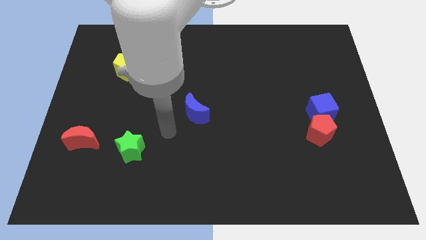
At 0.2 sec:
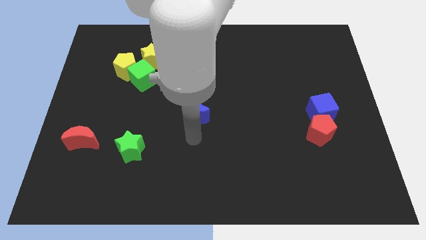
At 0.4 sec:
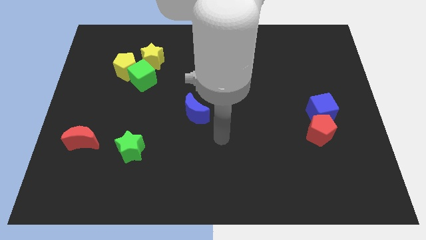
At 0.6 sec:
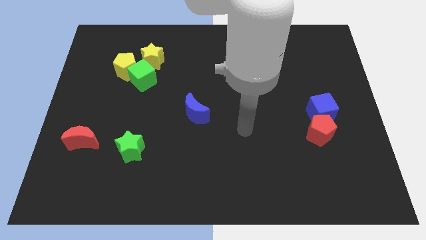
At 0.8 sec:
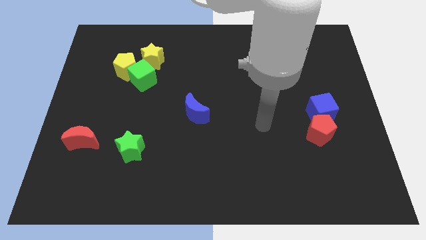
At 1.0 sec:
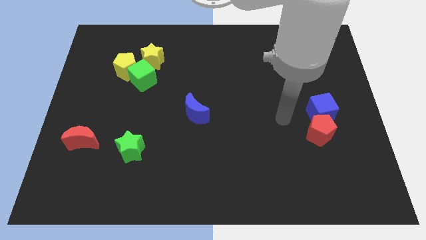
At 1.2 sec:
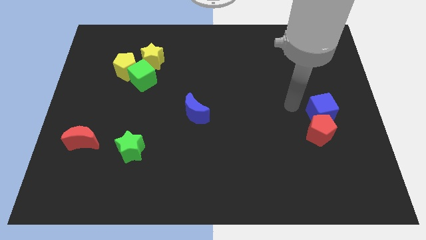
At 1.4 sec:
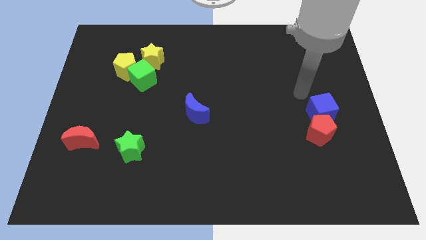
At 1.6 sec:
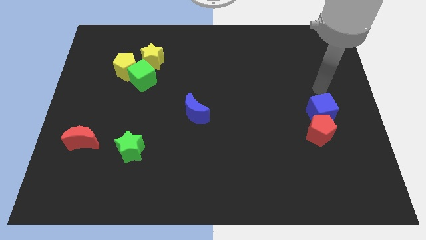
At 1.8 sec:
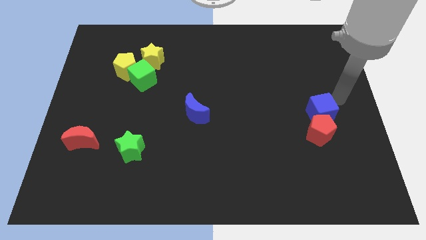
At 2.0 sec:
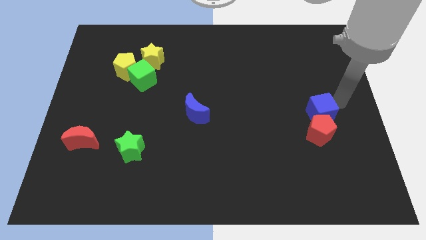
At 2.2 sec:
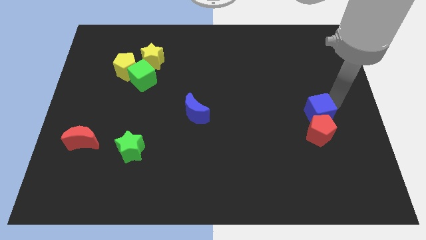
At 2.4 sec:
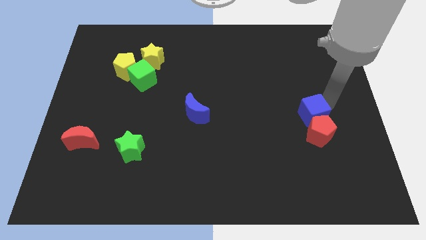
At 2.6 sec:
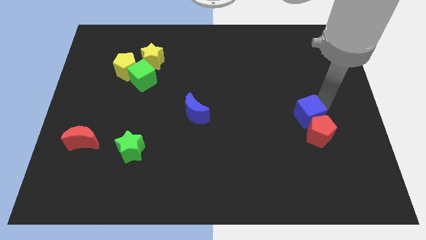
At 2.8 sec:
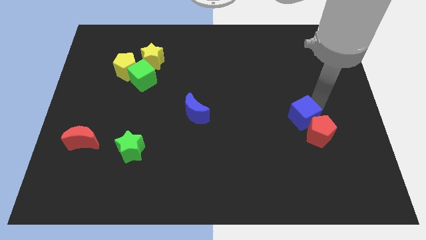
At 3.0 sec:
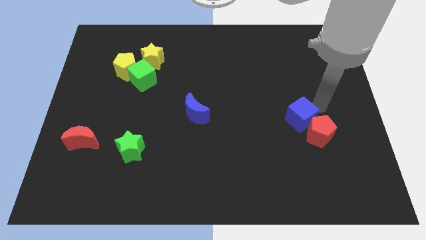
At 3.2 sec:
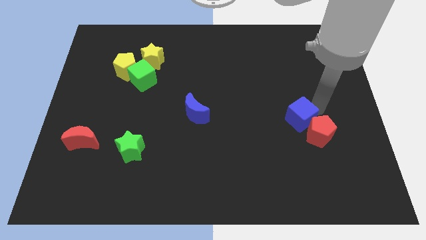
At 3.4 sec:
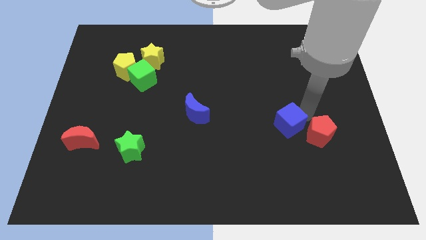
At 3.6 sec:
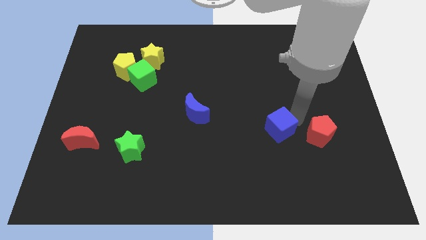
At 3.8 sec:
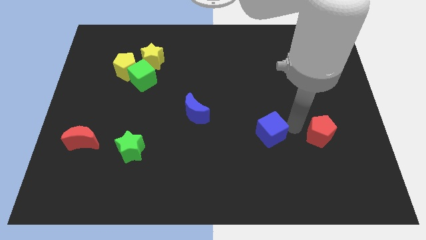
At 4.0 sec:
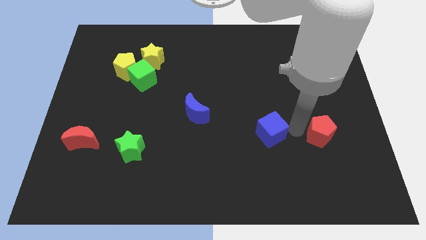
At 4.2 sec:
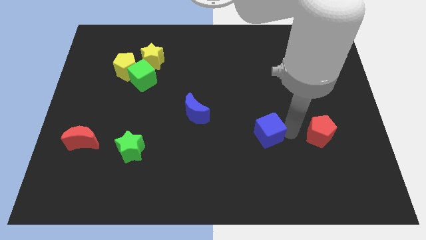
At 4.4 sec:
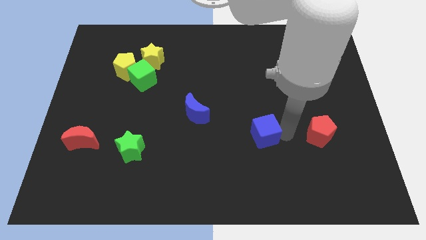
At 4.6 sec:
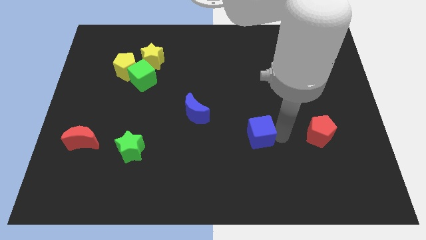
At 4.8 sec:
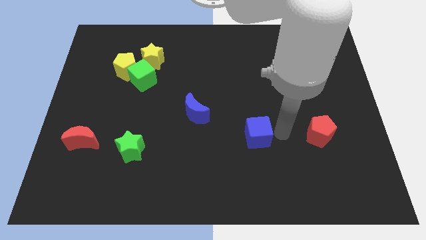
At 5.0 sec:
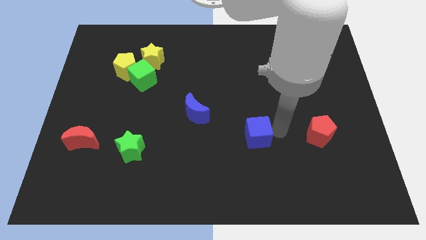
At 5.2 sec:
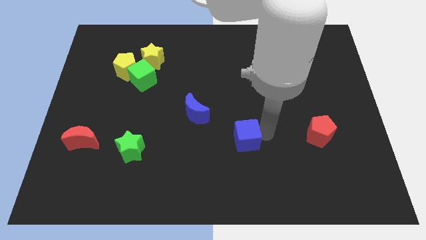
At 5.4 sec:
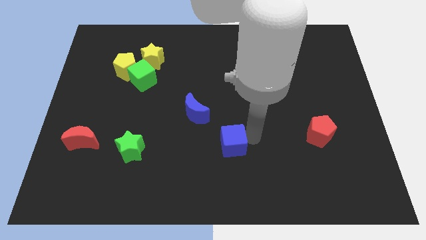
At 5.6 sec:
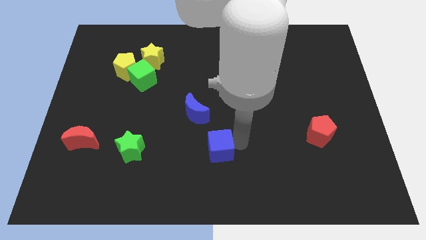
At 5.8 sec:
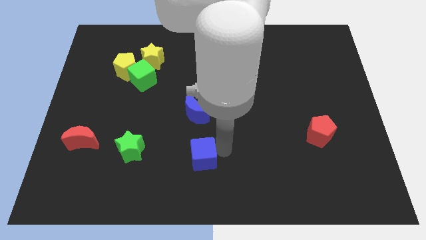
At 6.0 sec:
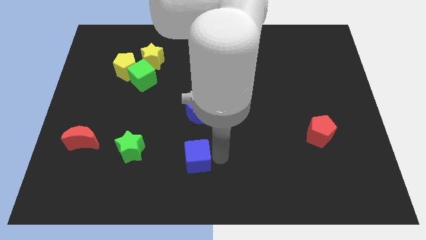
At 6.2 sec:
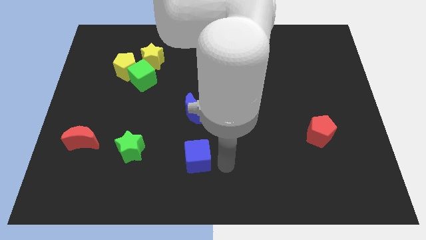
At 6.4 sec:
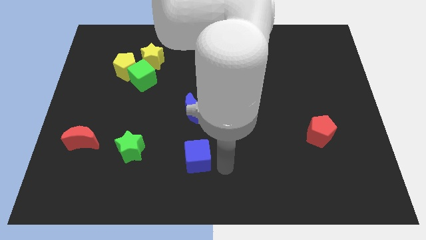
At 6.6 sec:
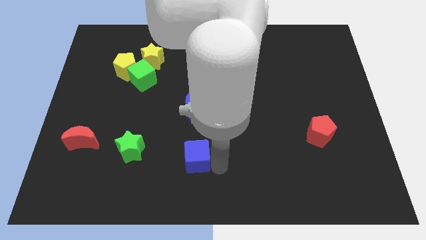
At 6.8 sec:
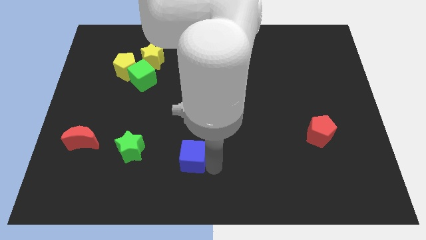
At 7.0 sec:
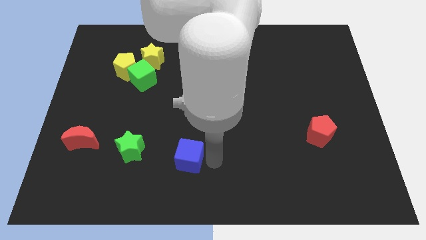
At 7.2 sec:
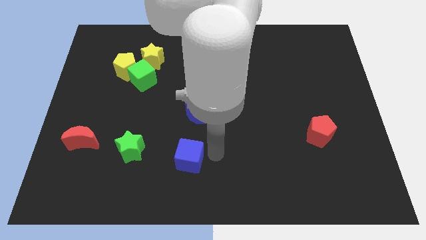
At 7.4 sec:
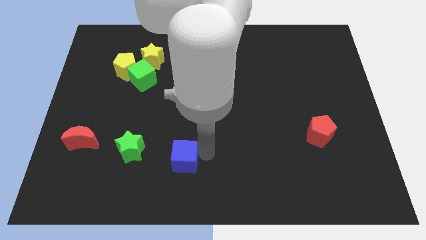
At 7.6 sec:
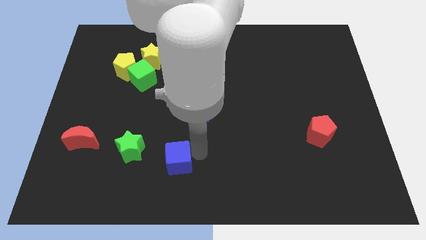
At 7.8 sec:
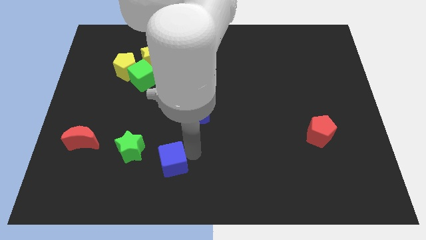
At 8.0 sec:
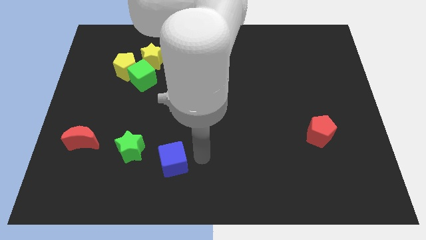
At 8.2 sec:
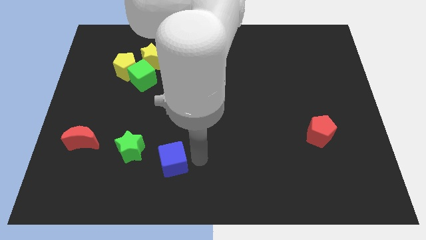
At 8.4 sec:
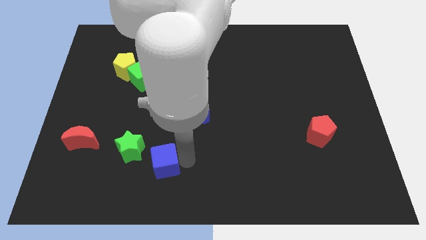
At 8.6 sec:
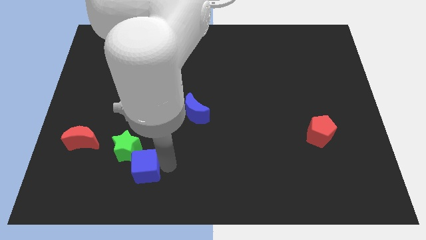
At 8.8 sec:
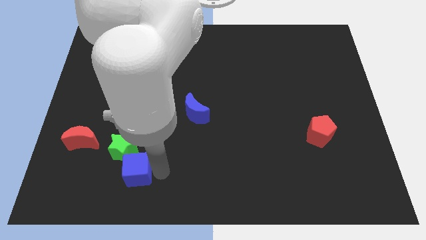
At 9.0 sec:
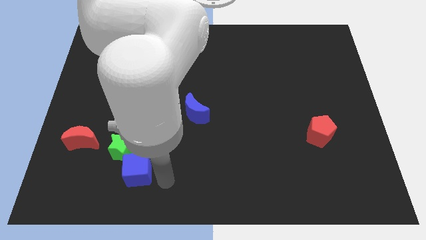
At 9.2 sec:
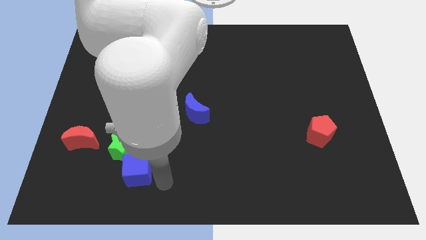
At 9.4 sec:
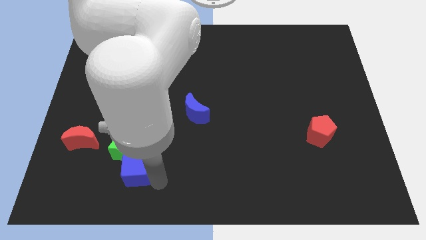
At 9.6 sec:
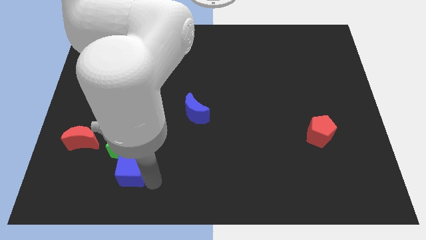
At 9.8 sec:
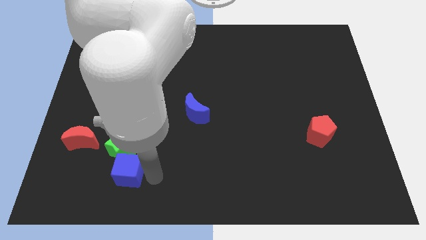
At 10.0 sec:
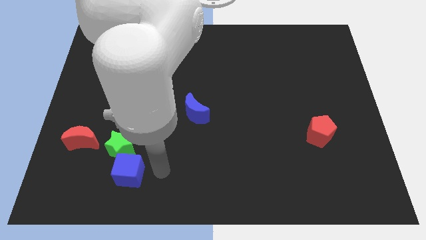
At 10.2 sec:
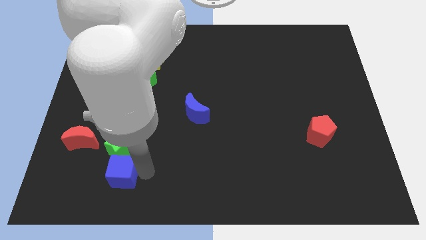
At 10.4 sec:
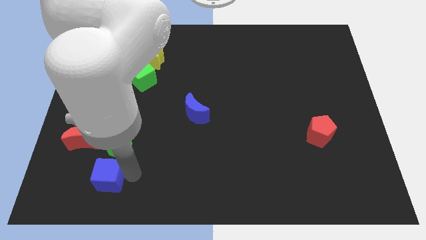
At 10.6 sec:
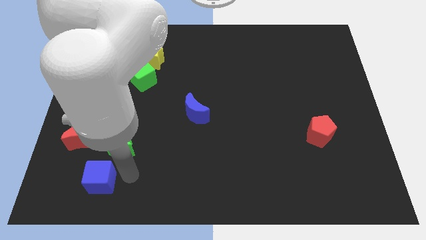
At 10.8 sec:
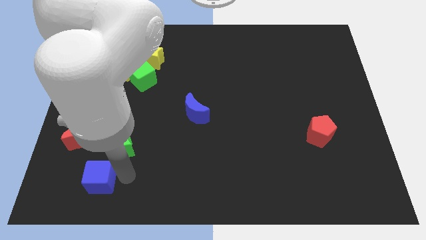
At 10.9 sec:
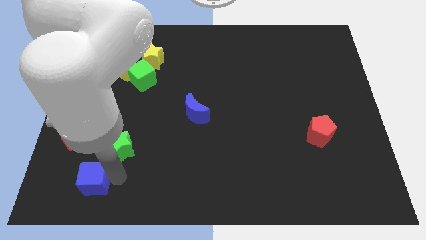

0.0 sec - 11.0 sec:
push the blue cube below the red moon

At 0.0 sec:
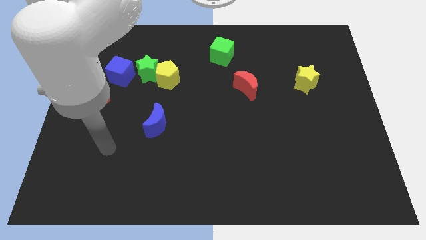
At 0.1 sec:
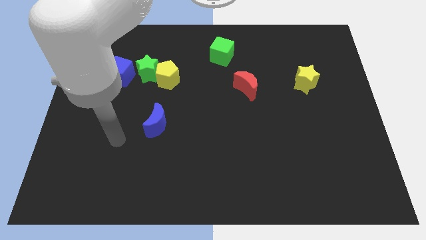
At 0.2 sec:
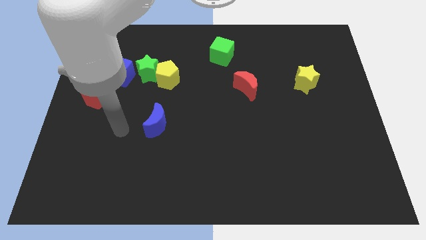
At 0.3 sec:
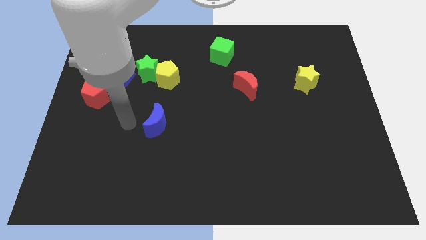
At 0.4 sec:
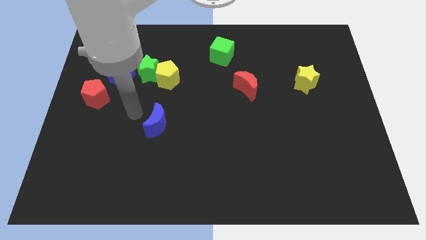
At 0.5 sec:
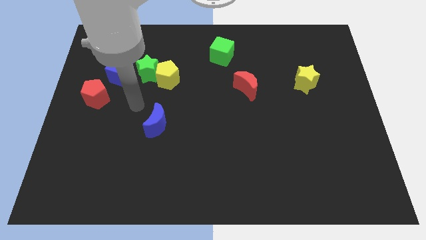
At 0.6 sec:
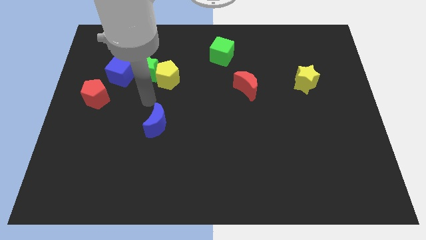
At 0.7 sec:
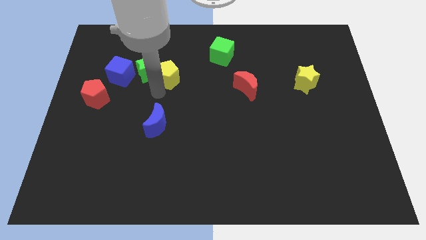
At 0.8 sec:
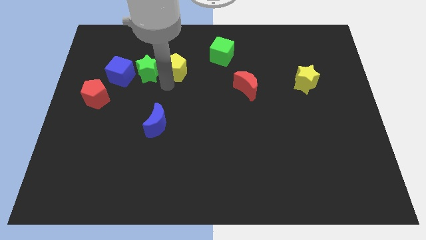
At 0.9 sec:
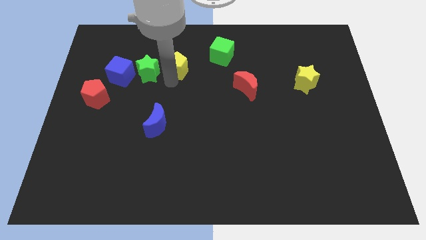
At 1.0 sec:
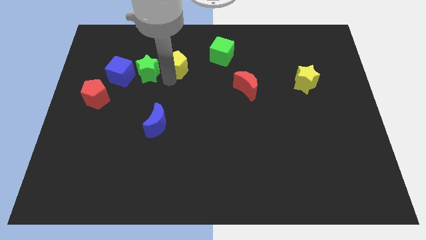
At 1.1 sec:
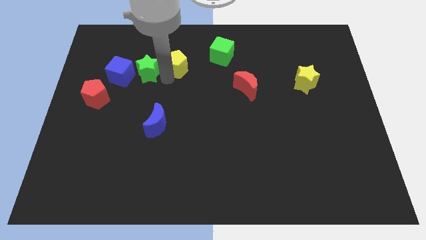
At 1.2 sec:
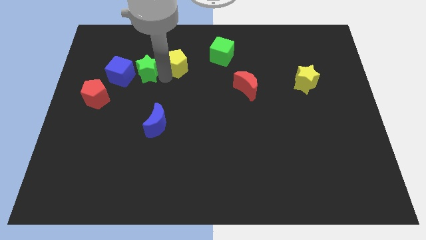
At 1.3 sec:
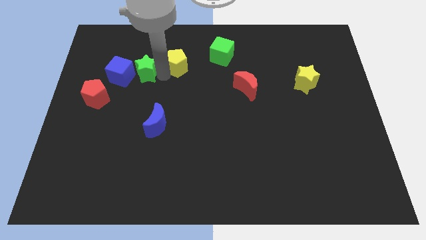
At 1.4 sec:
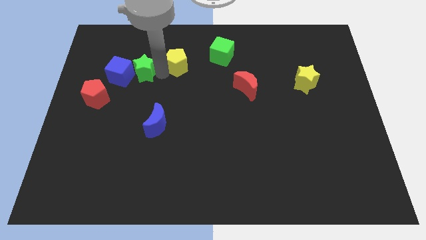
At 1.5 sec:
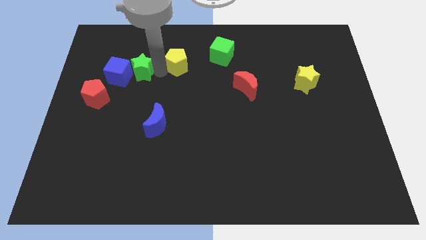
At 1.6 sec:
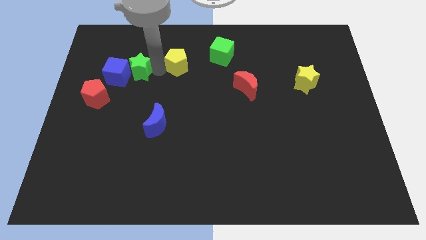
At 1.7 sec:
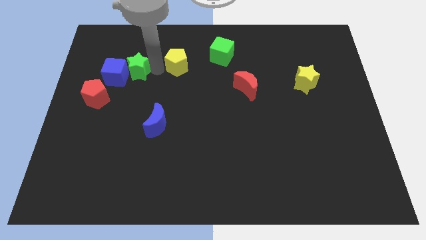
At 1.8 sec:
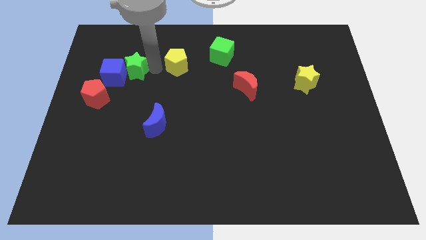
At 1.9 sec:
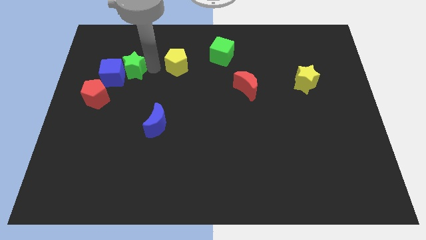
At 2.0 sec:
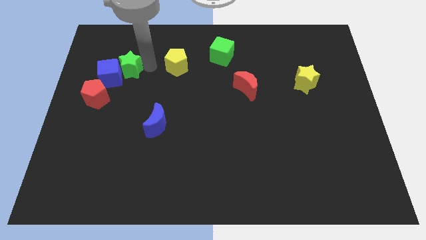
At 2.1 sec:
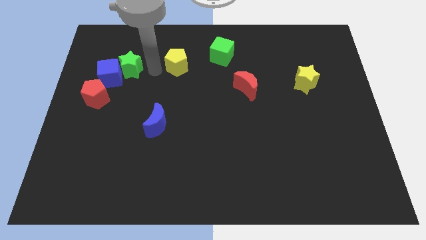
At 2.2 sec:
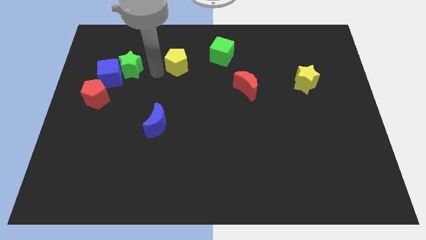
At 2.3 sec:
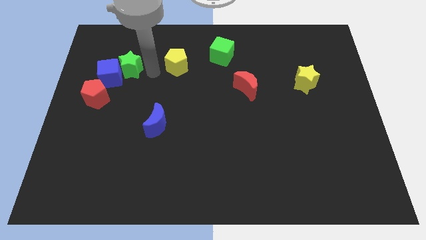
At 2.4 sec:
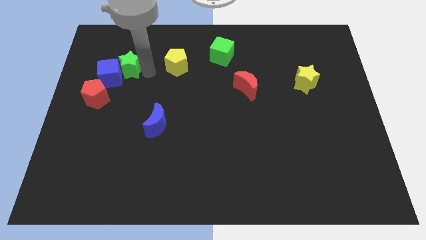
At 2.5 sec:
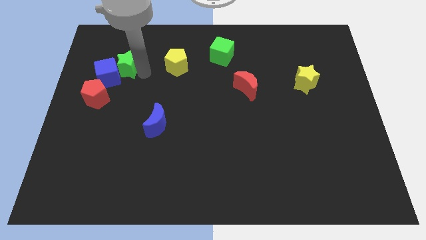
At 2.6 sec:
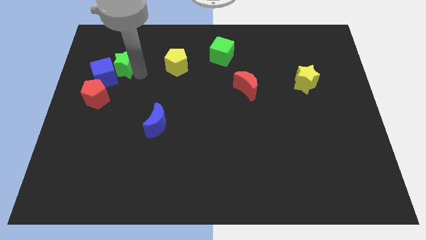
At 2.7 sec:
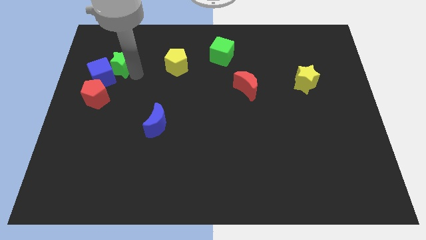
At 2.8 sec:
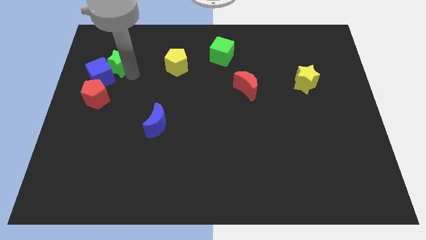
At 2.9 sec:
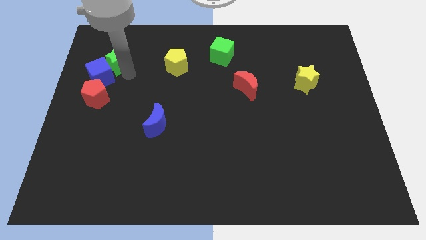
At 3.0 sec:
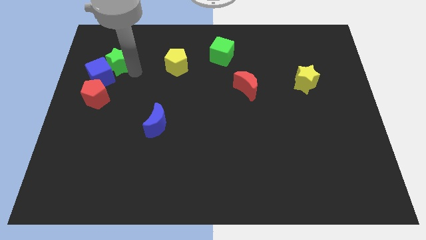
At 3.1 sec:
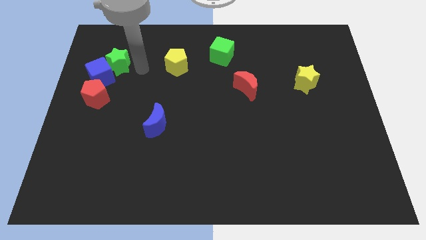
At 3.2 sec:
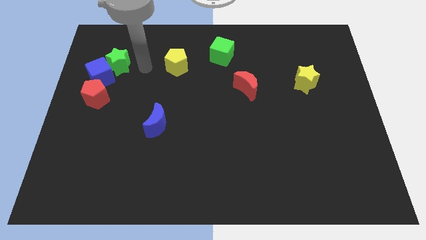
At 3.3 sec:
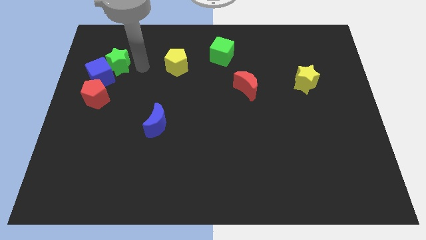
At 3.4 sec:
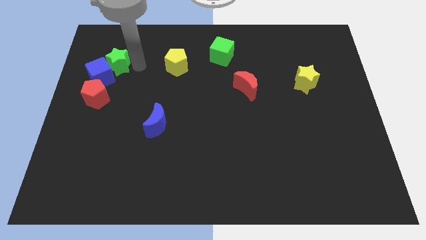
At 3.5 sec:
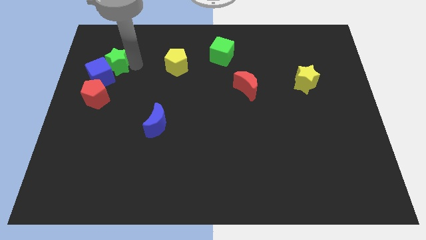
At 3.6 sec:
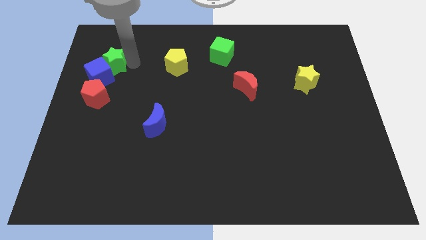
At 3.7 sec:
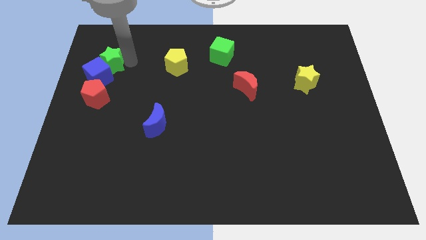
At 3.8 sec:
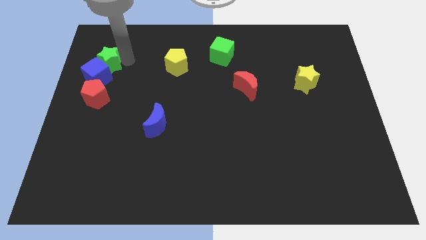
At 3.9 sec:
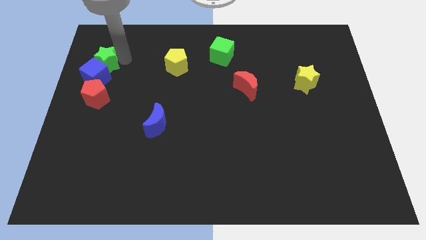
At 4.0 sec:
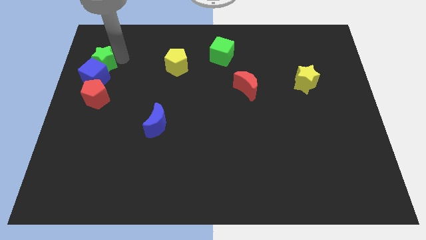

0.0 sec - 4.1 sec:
move the green star to the top left of the blue cube
